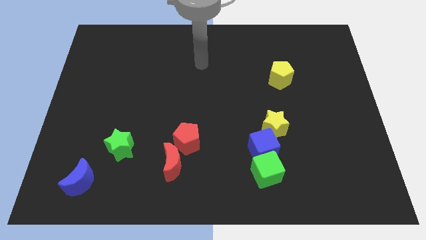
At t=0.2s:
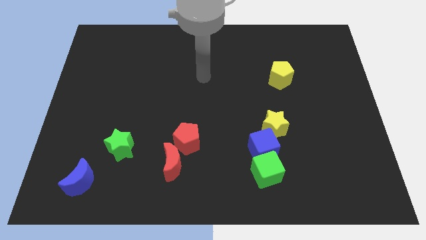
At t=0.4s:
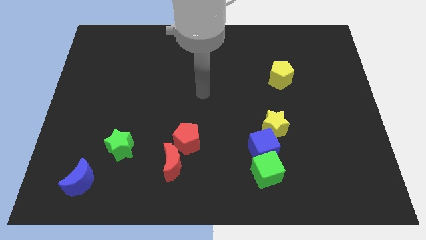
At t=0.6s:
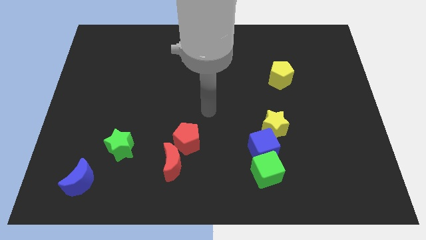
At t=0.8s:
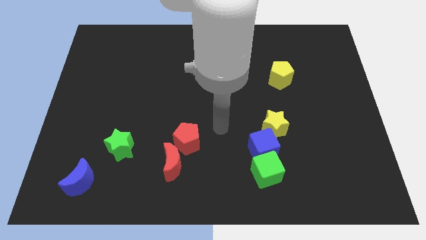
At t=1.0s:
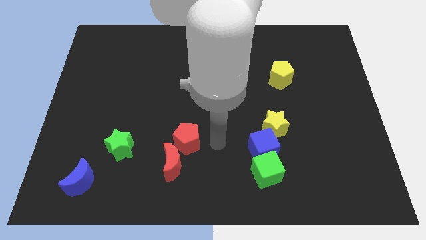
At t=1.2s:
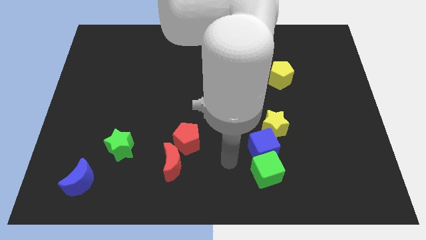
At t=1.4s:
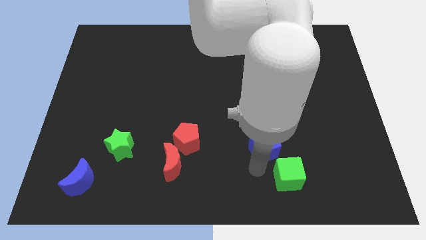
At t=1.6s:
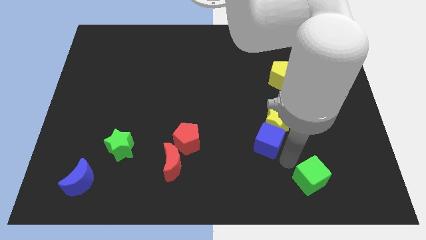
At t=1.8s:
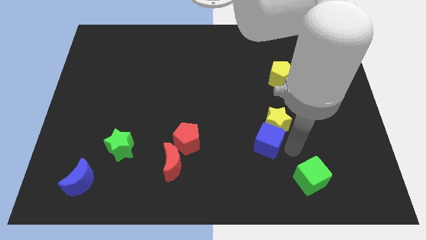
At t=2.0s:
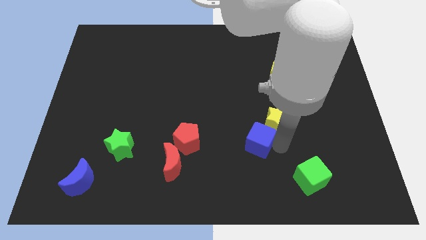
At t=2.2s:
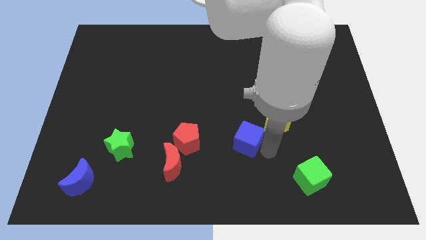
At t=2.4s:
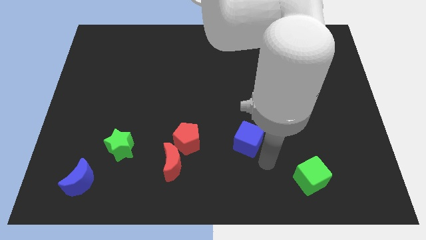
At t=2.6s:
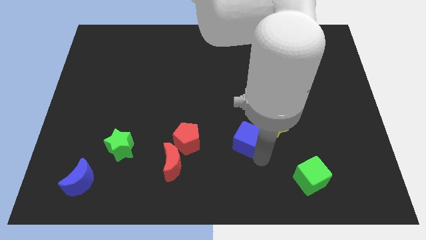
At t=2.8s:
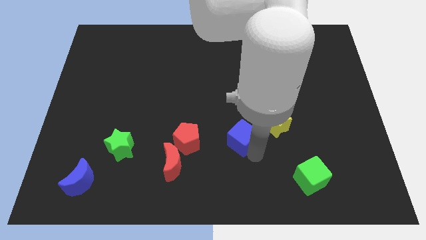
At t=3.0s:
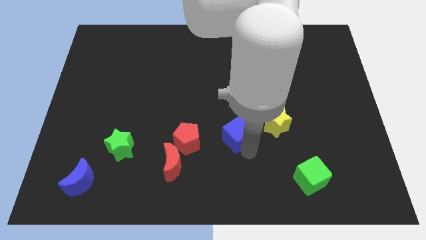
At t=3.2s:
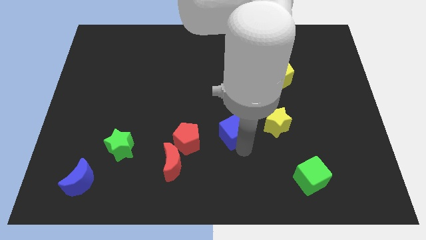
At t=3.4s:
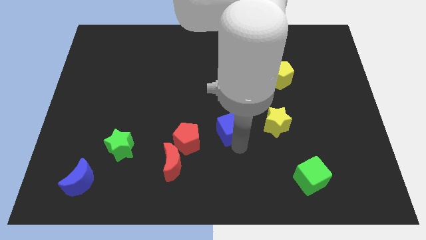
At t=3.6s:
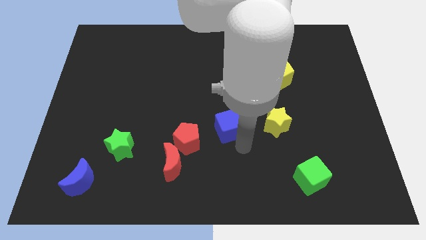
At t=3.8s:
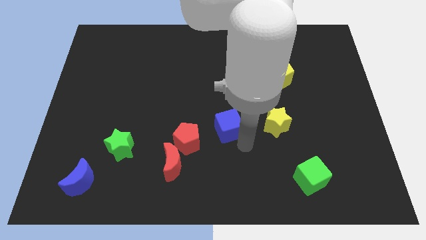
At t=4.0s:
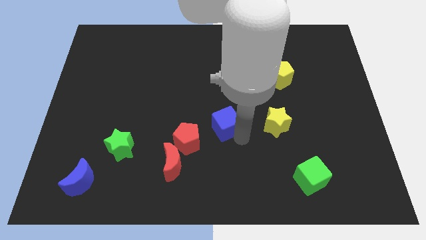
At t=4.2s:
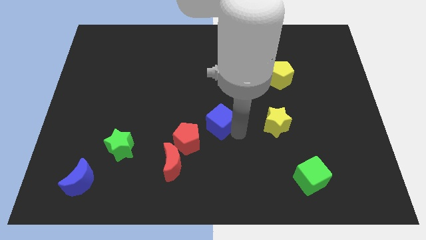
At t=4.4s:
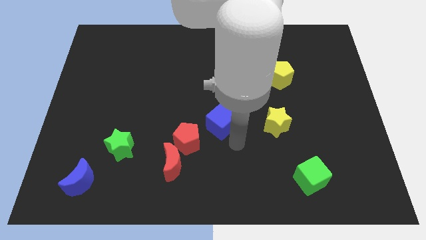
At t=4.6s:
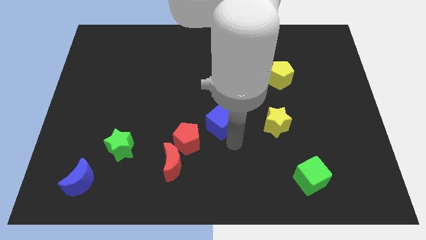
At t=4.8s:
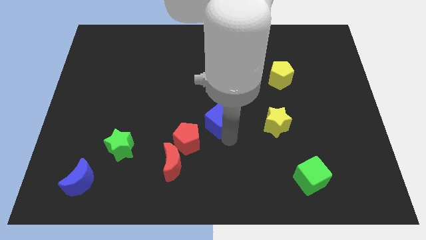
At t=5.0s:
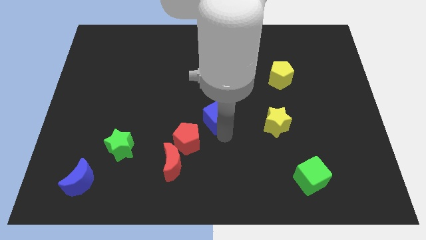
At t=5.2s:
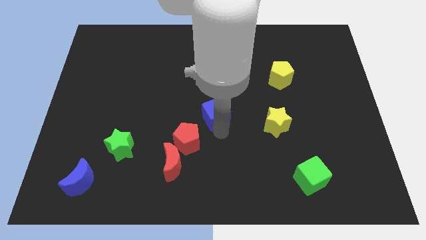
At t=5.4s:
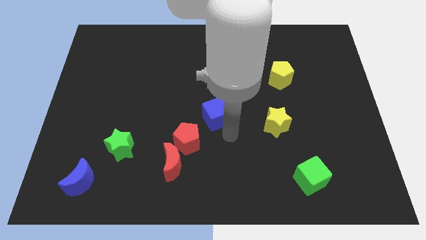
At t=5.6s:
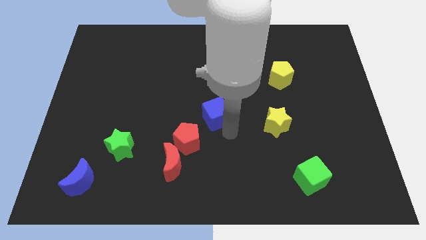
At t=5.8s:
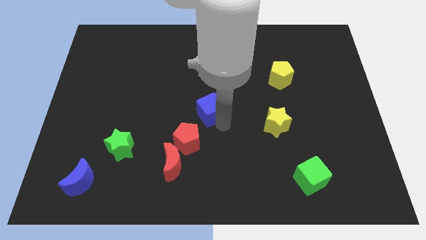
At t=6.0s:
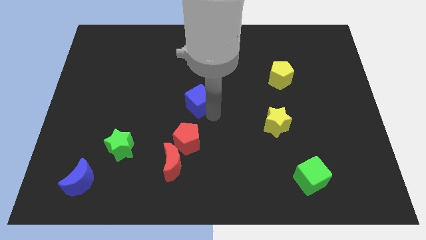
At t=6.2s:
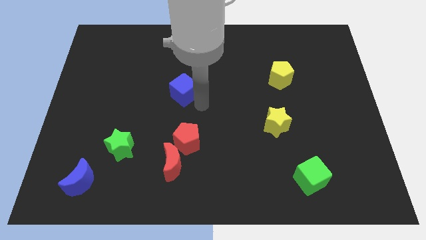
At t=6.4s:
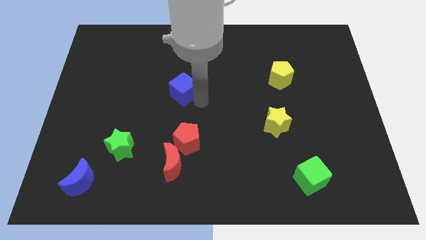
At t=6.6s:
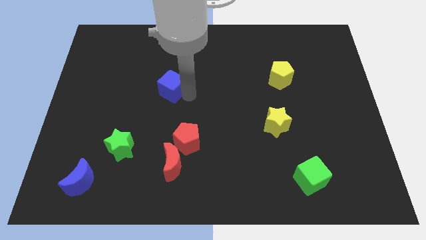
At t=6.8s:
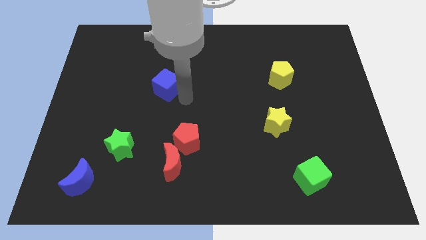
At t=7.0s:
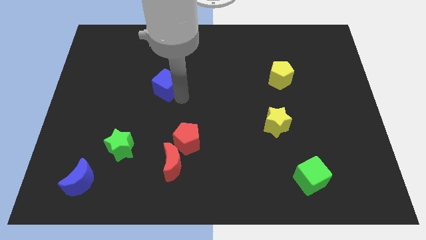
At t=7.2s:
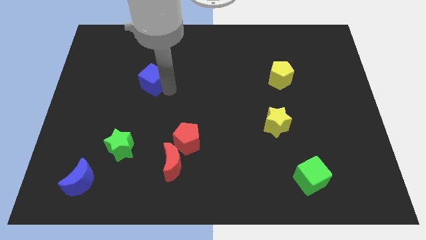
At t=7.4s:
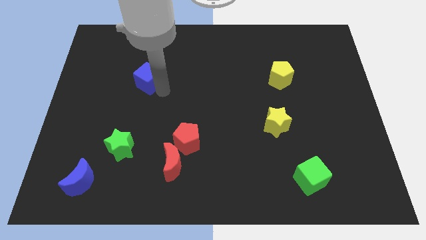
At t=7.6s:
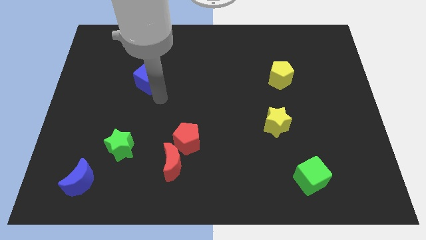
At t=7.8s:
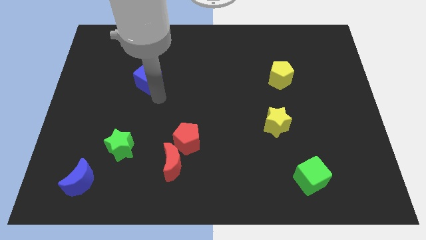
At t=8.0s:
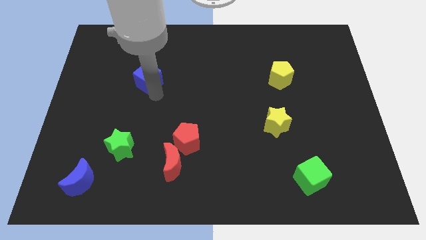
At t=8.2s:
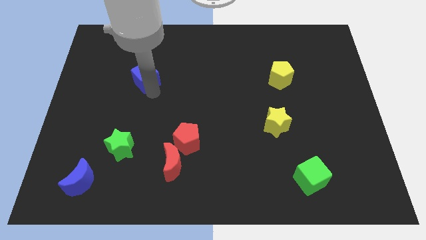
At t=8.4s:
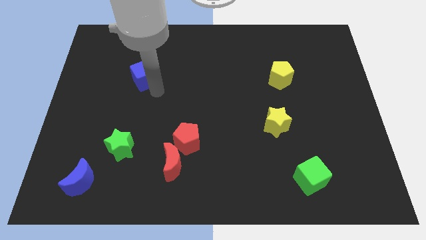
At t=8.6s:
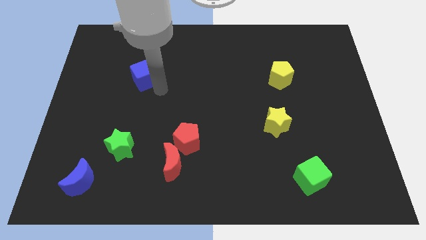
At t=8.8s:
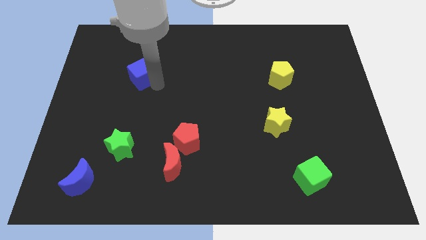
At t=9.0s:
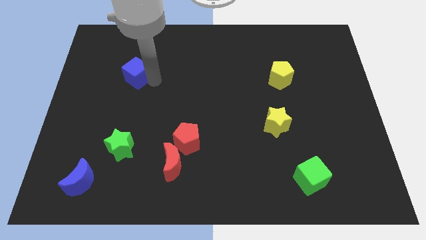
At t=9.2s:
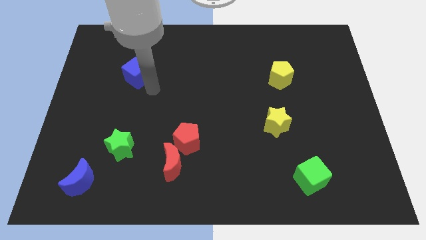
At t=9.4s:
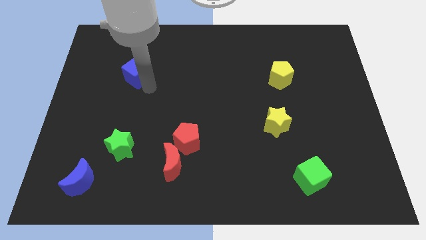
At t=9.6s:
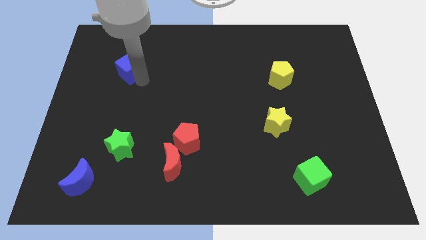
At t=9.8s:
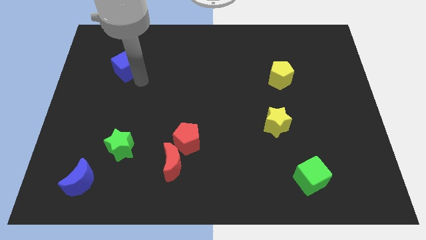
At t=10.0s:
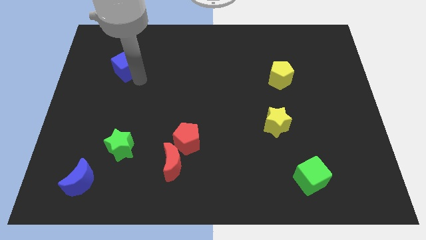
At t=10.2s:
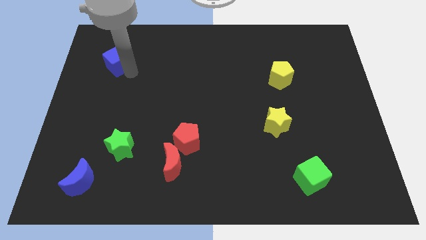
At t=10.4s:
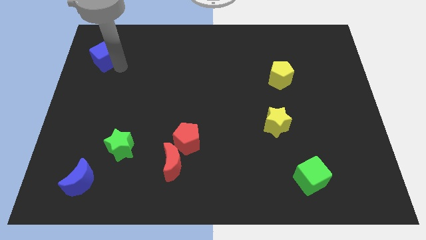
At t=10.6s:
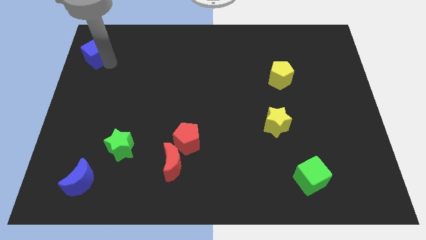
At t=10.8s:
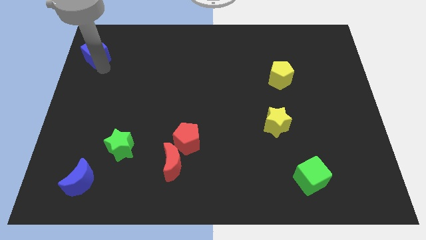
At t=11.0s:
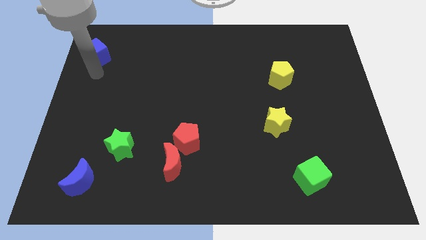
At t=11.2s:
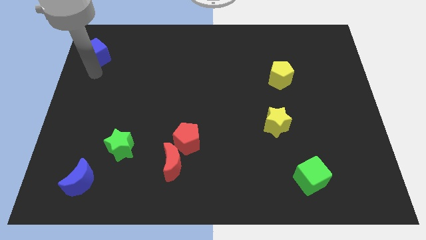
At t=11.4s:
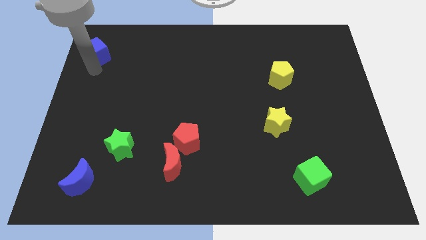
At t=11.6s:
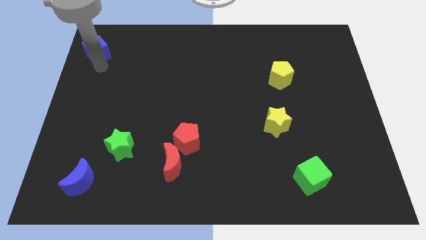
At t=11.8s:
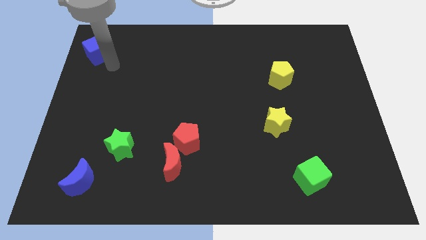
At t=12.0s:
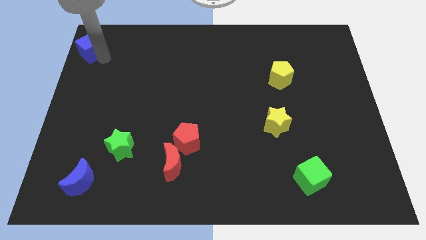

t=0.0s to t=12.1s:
move the blue cube to the top left of the board

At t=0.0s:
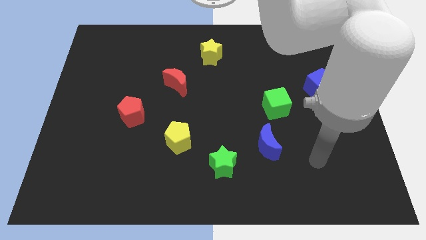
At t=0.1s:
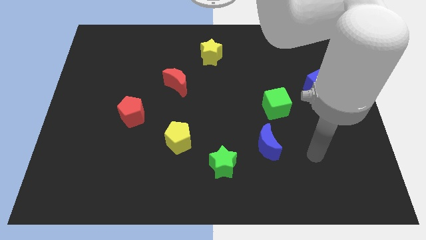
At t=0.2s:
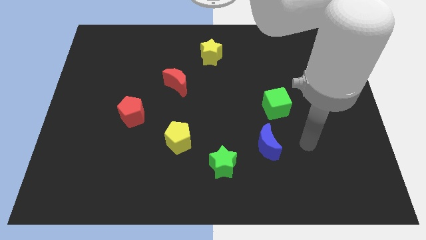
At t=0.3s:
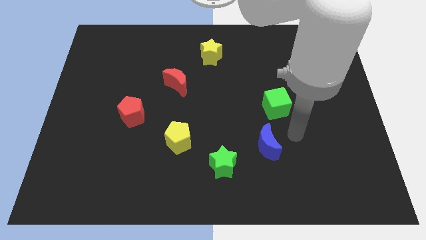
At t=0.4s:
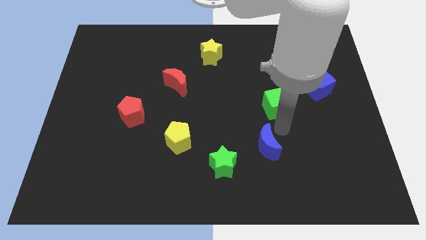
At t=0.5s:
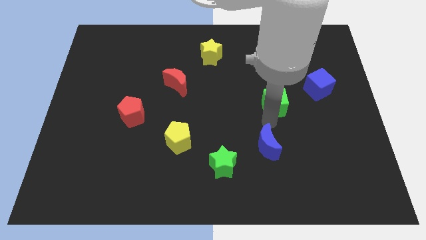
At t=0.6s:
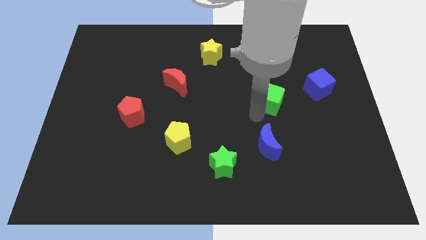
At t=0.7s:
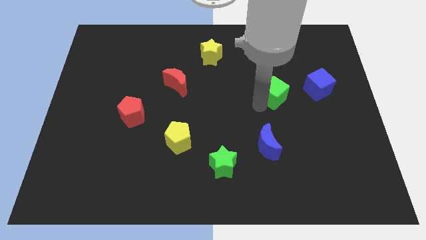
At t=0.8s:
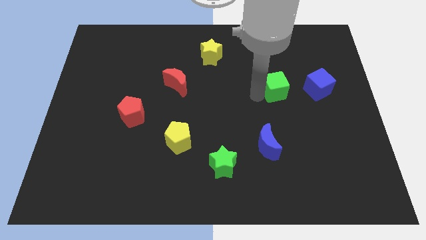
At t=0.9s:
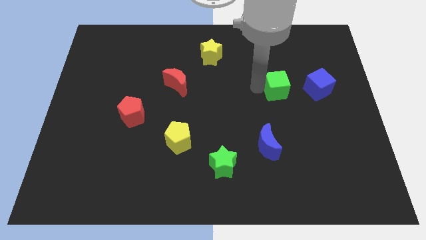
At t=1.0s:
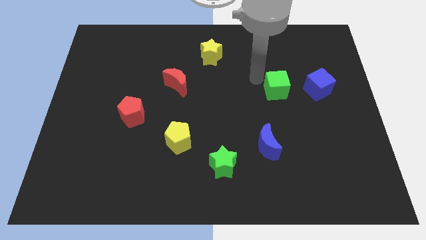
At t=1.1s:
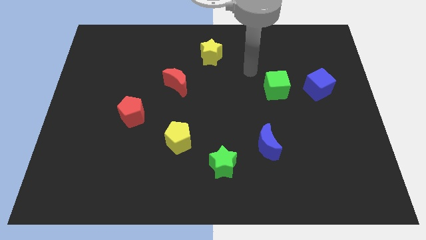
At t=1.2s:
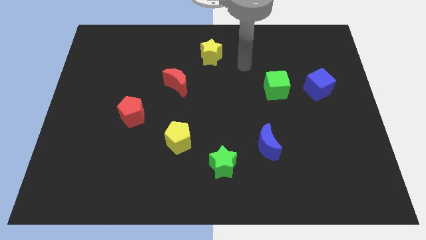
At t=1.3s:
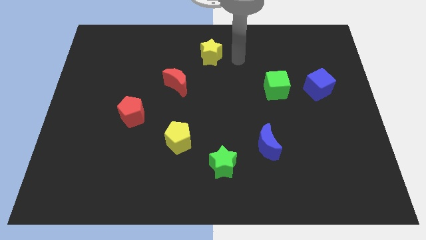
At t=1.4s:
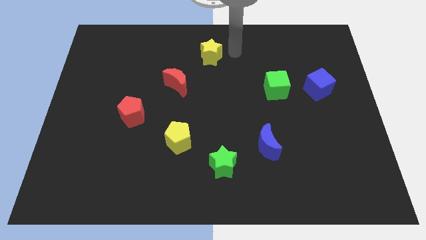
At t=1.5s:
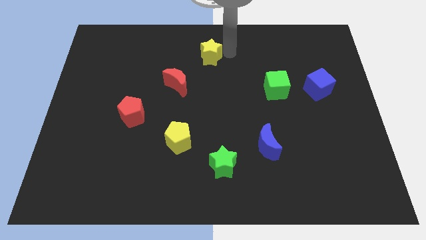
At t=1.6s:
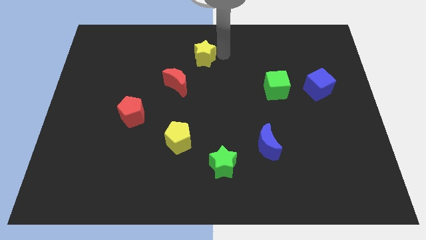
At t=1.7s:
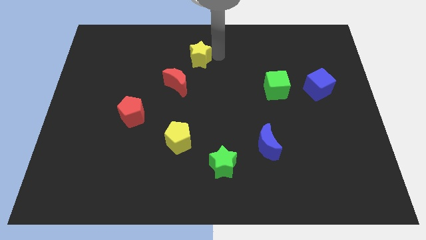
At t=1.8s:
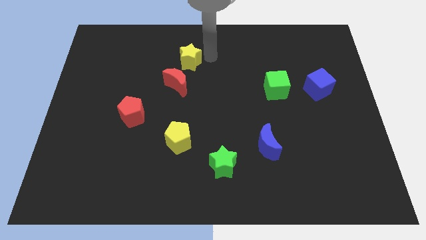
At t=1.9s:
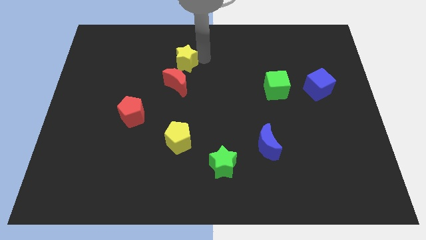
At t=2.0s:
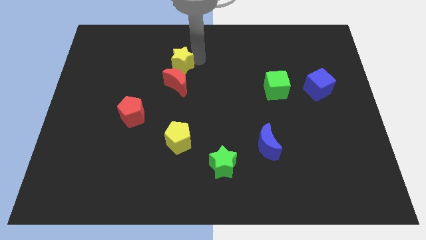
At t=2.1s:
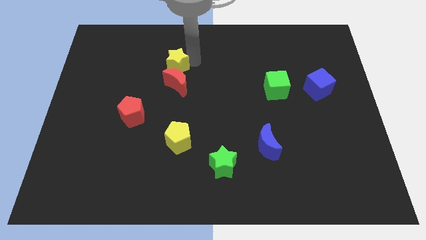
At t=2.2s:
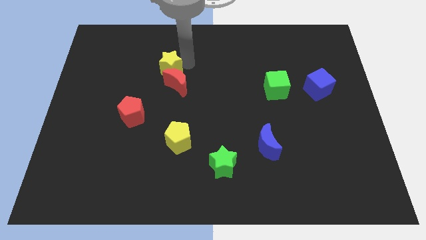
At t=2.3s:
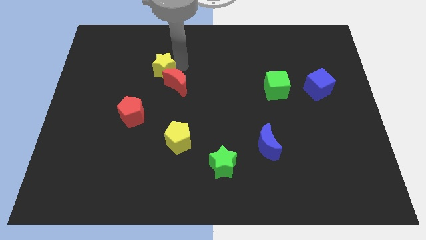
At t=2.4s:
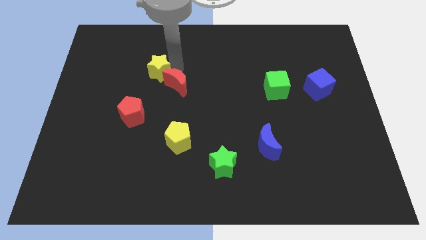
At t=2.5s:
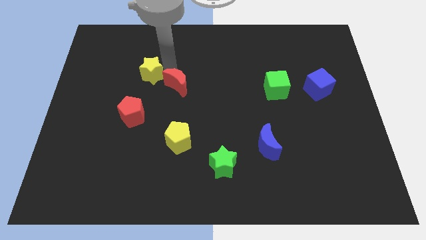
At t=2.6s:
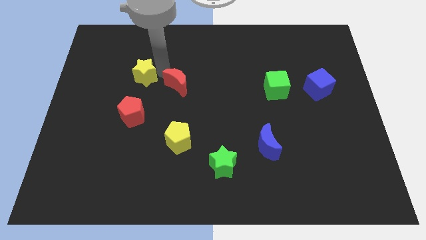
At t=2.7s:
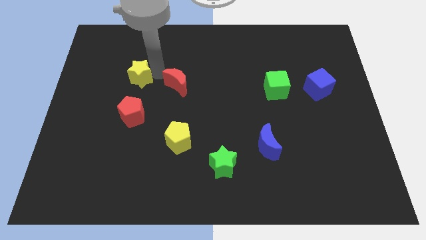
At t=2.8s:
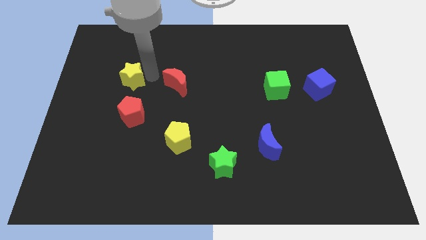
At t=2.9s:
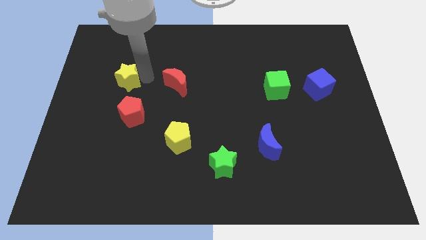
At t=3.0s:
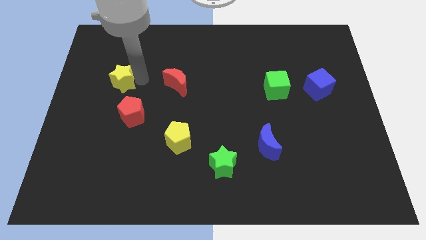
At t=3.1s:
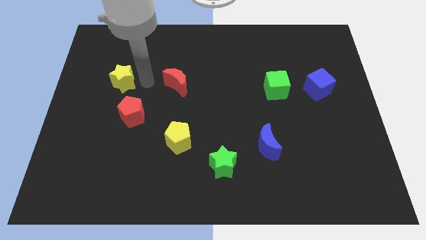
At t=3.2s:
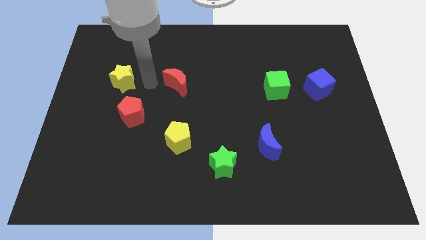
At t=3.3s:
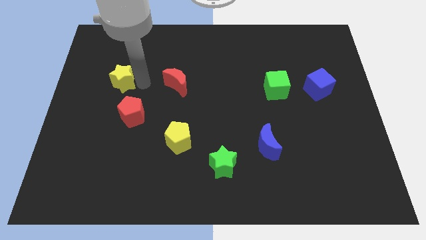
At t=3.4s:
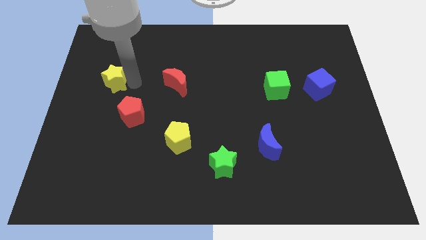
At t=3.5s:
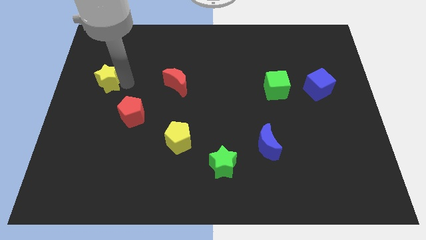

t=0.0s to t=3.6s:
move the yellow star to the left side
